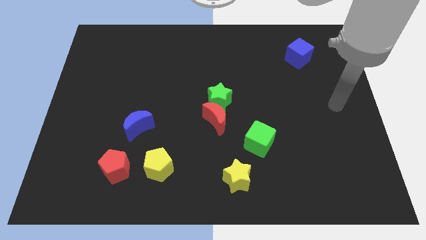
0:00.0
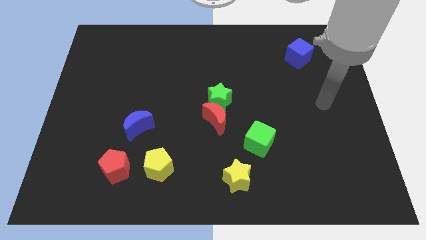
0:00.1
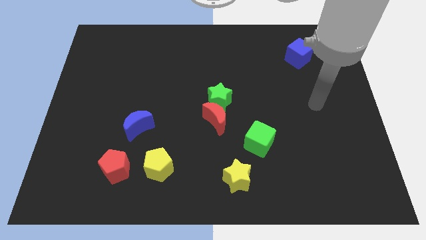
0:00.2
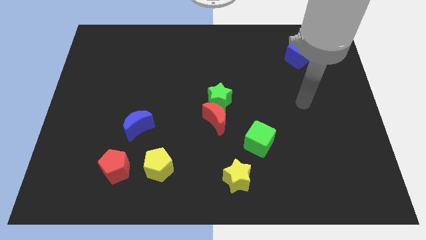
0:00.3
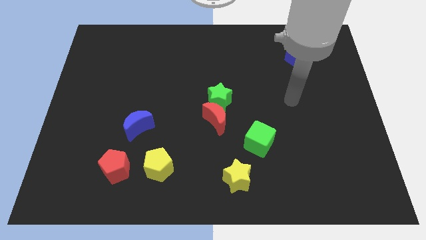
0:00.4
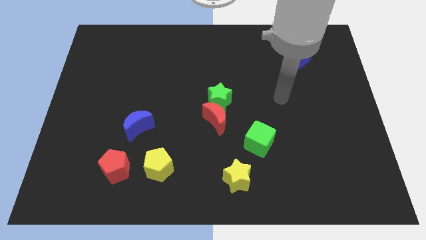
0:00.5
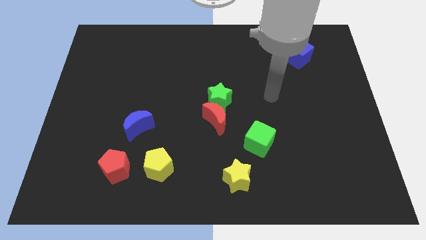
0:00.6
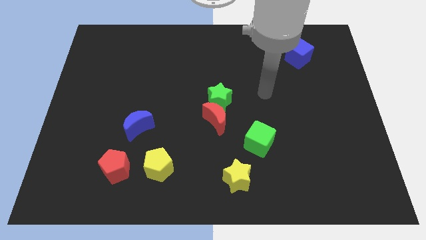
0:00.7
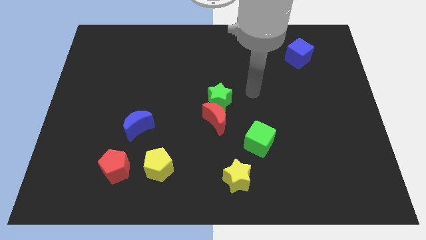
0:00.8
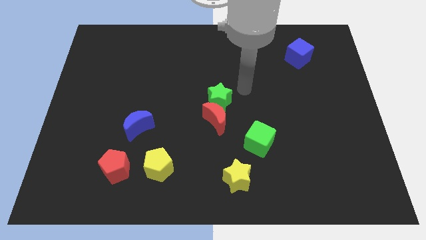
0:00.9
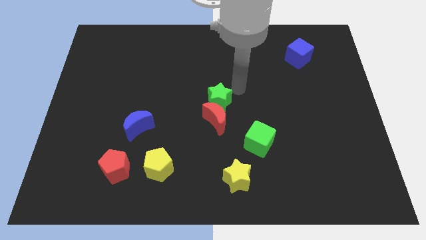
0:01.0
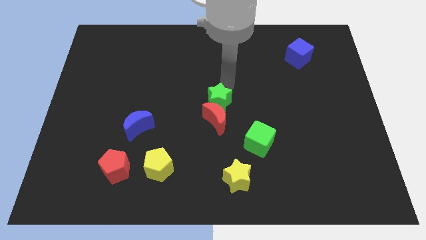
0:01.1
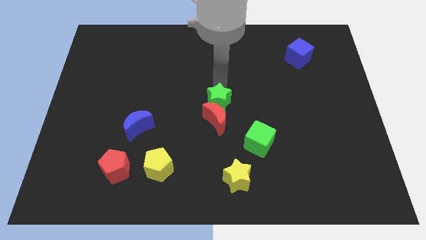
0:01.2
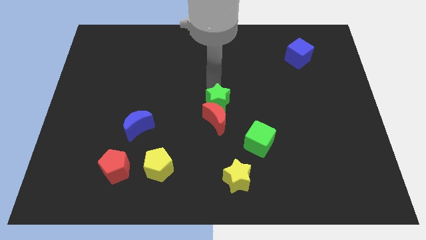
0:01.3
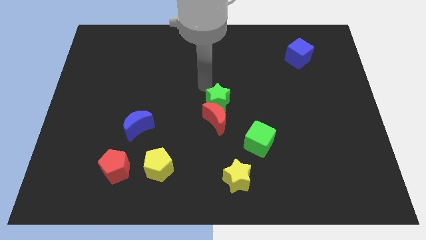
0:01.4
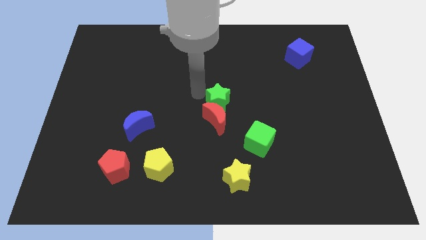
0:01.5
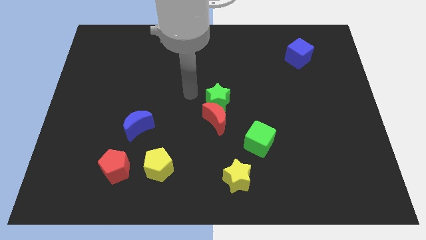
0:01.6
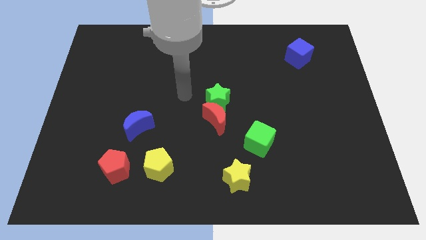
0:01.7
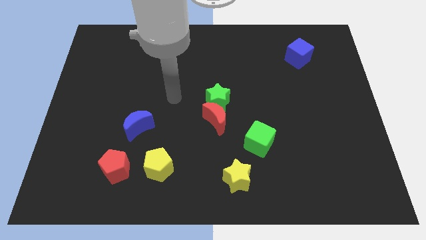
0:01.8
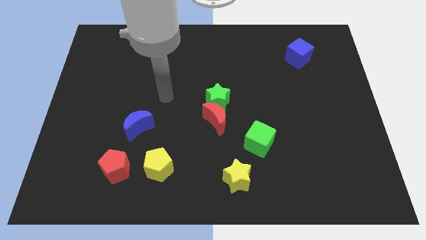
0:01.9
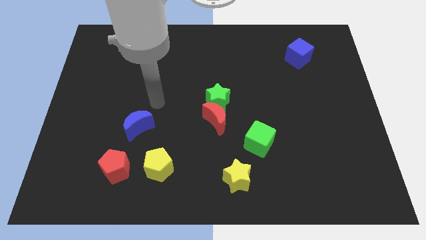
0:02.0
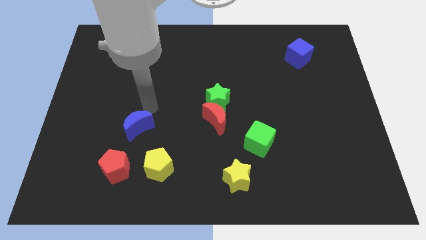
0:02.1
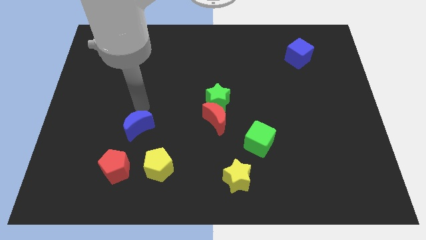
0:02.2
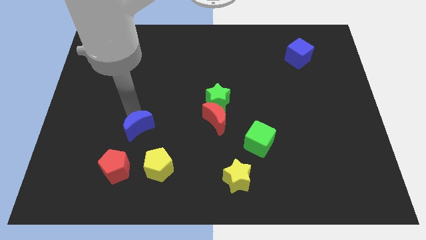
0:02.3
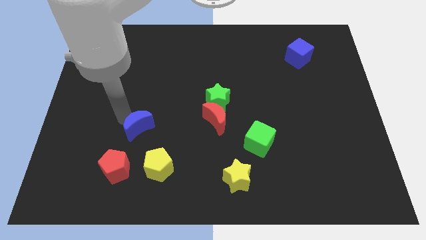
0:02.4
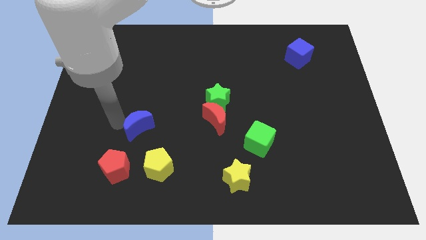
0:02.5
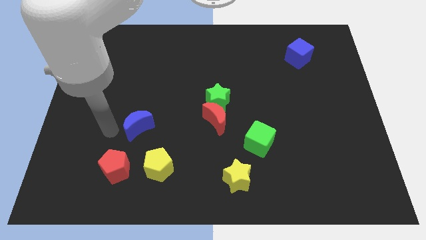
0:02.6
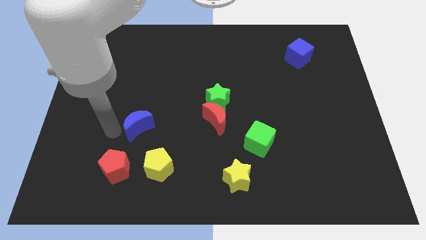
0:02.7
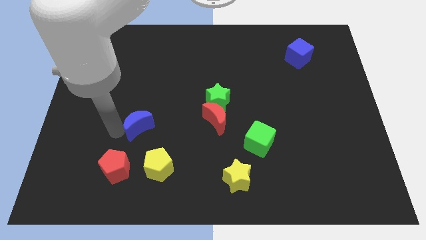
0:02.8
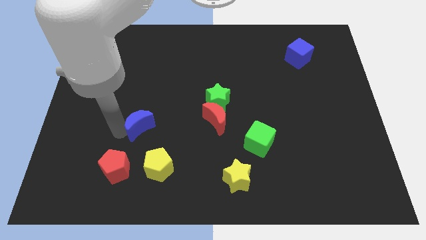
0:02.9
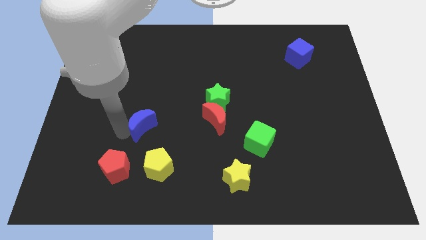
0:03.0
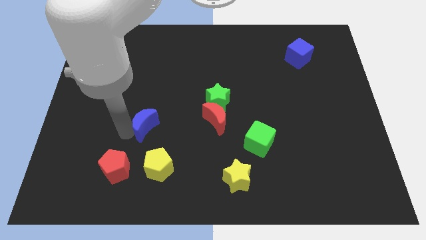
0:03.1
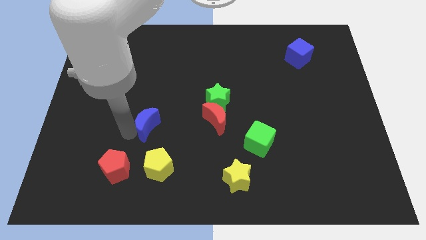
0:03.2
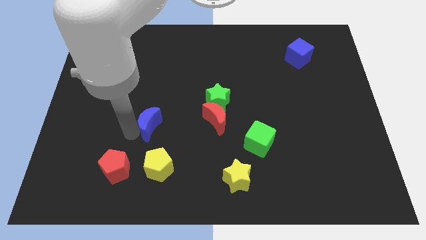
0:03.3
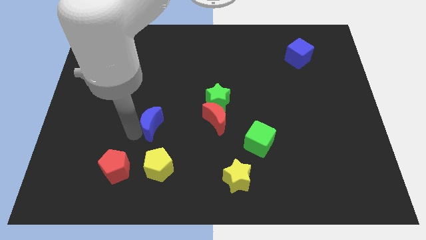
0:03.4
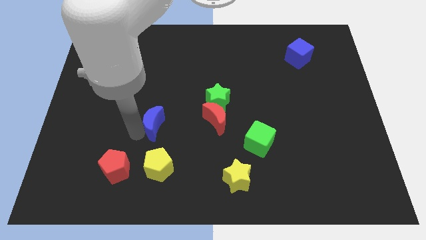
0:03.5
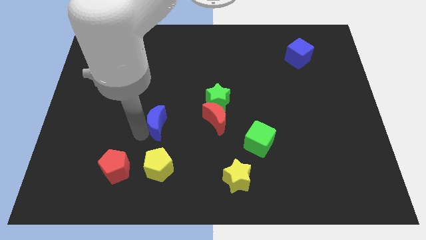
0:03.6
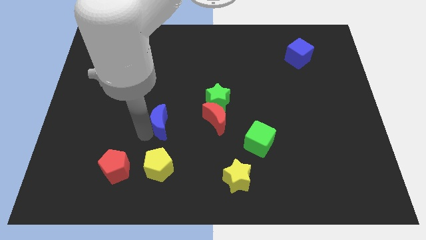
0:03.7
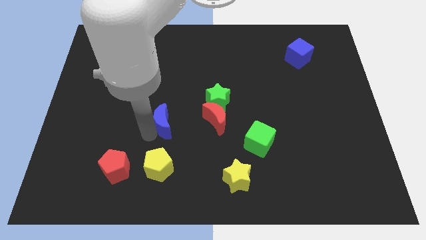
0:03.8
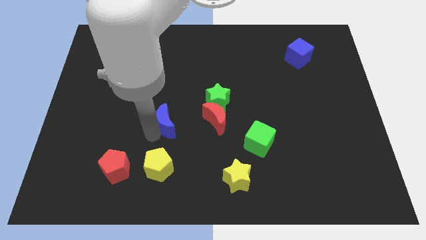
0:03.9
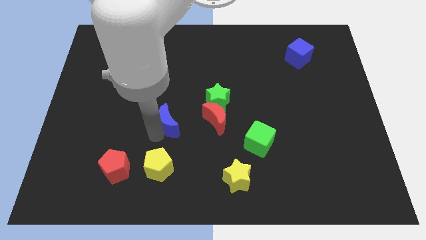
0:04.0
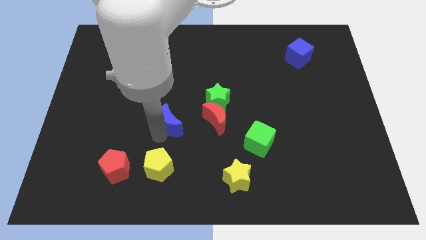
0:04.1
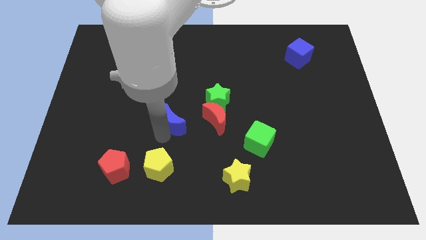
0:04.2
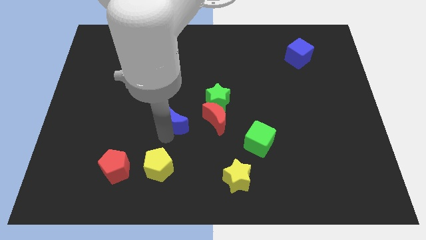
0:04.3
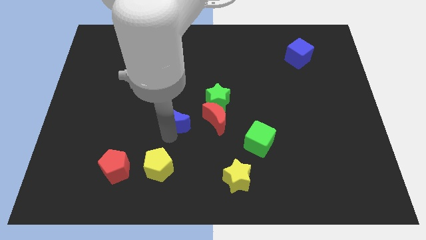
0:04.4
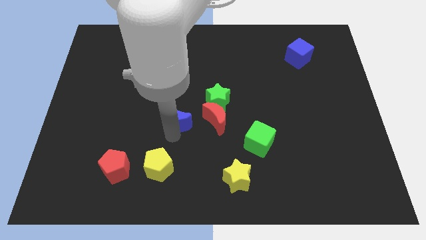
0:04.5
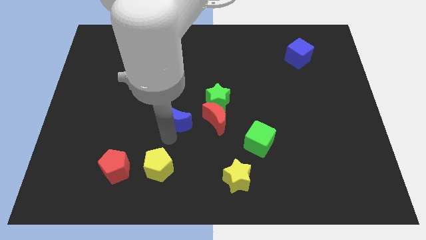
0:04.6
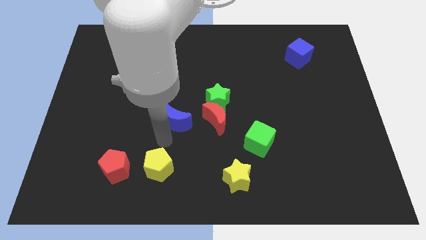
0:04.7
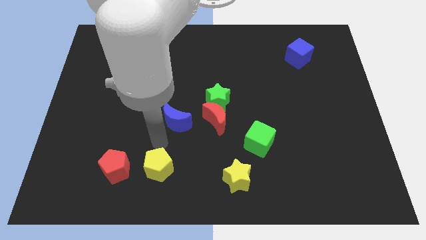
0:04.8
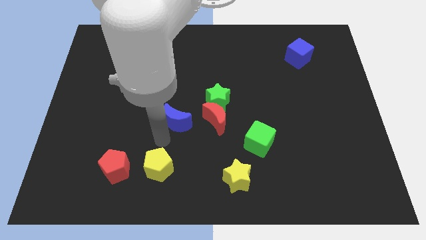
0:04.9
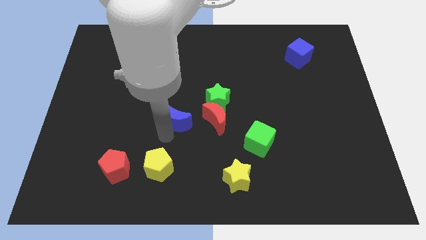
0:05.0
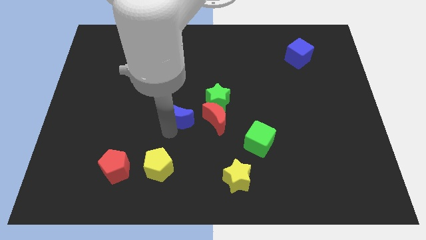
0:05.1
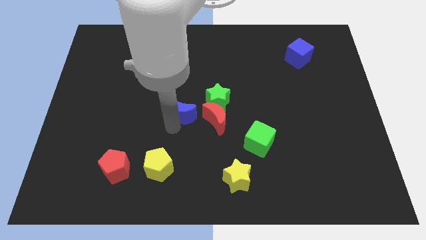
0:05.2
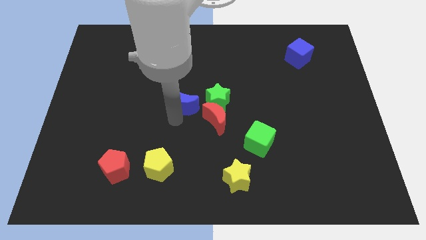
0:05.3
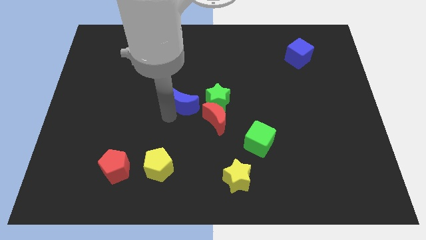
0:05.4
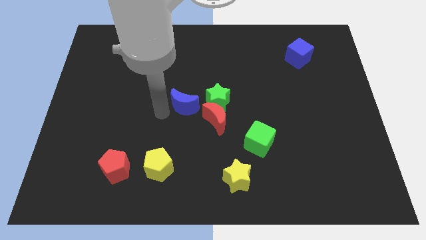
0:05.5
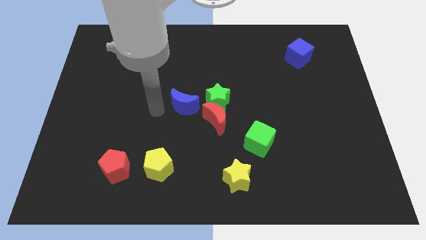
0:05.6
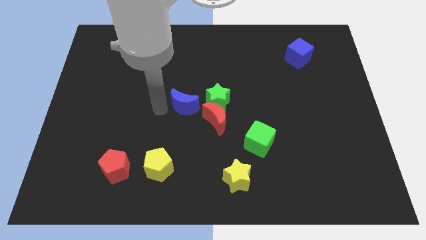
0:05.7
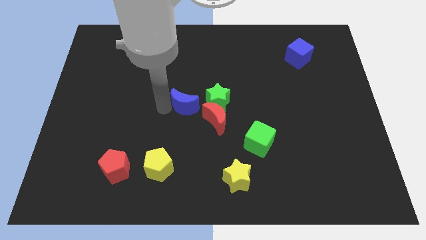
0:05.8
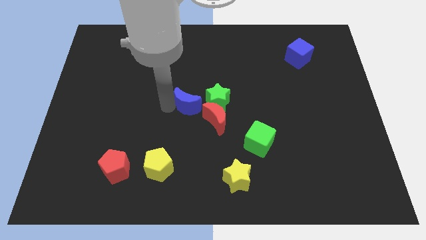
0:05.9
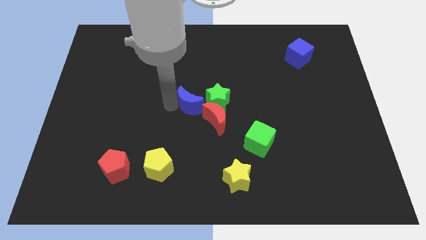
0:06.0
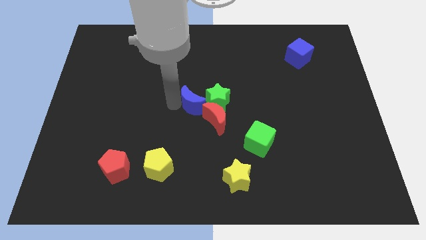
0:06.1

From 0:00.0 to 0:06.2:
put the blue moon to the green star

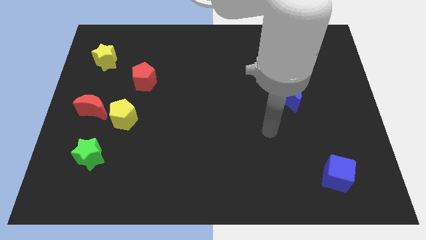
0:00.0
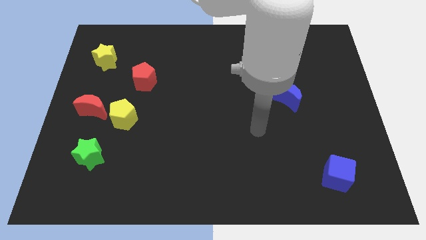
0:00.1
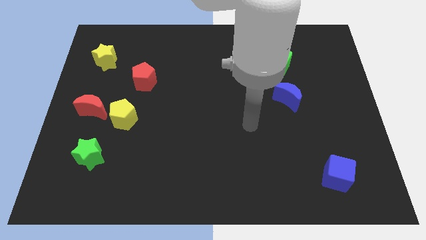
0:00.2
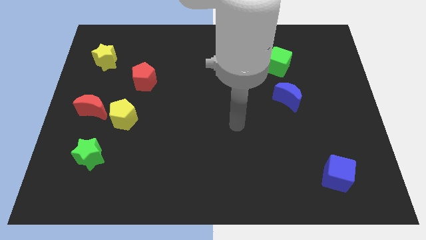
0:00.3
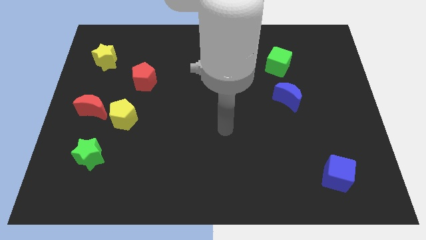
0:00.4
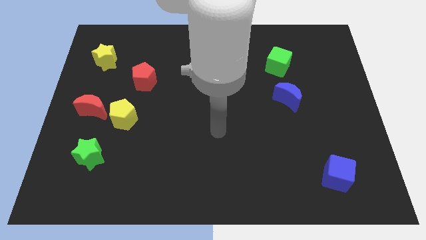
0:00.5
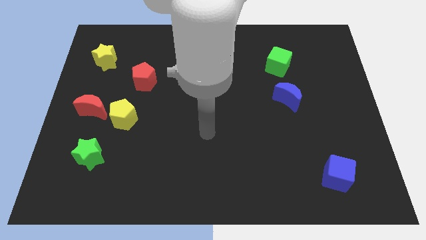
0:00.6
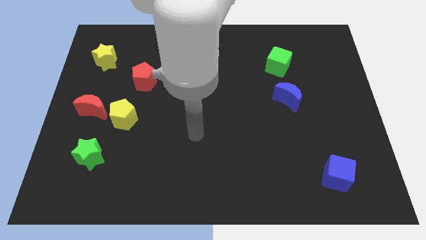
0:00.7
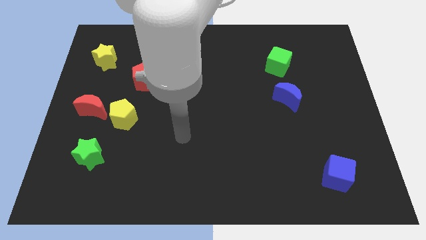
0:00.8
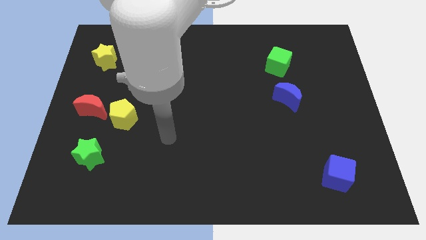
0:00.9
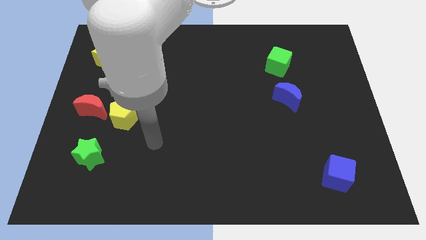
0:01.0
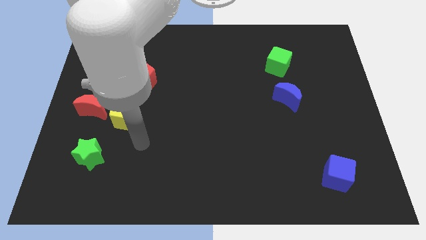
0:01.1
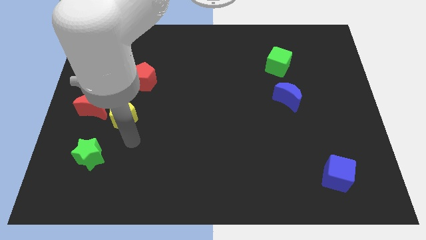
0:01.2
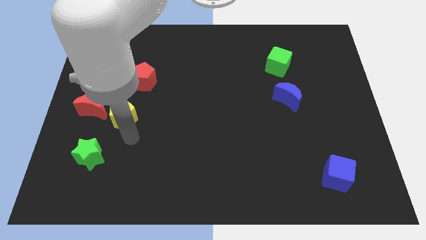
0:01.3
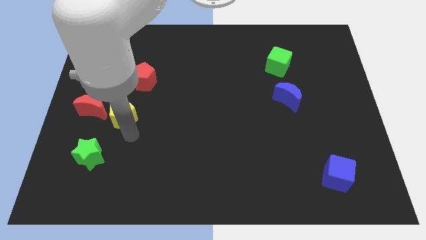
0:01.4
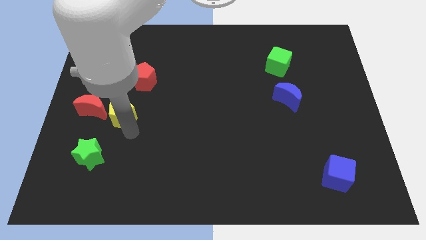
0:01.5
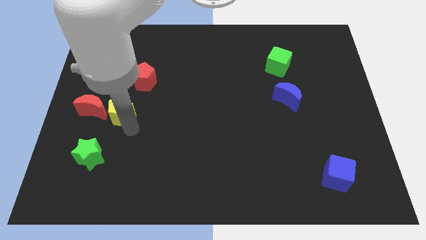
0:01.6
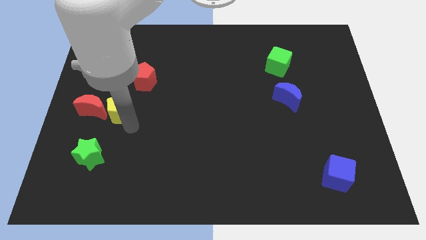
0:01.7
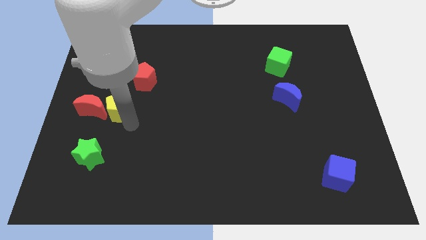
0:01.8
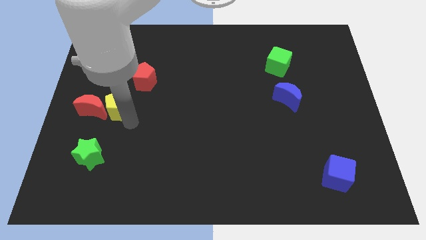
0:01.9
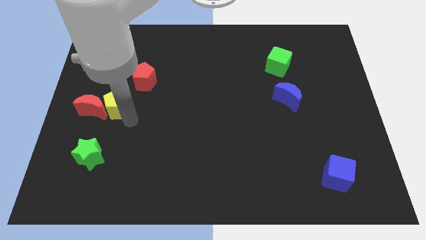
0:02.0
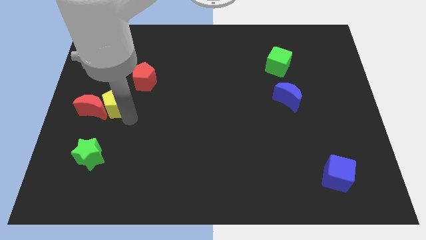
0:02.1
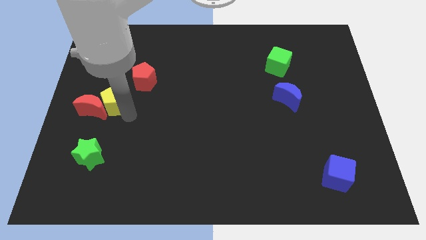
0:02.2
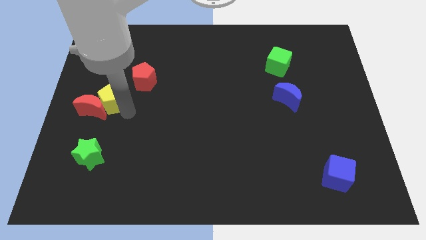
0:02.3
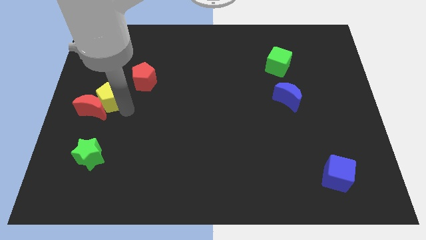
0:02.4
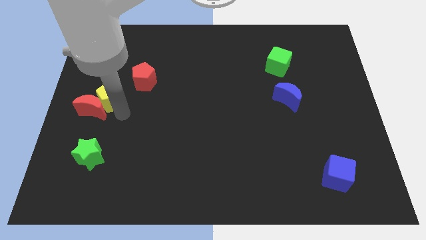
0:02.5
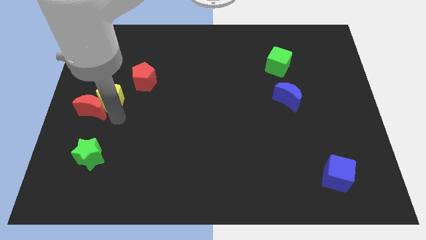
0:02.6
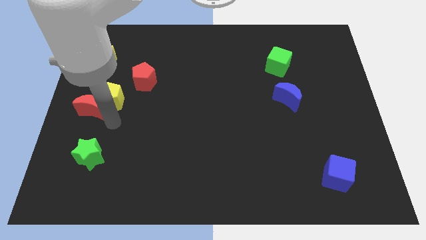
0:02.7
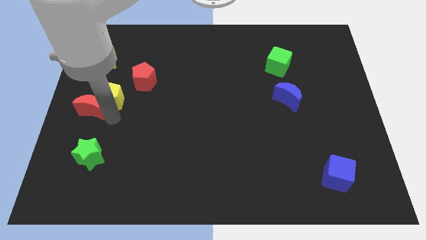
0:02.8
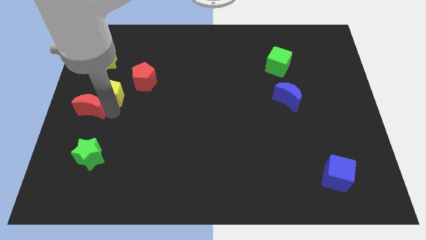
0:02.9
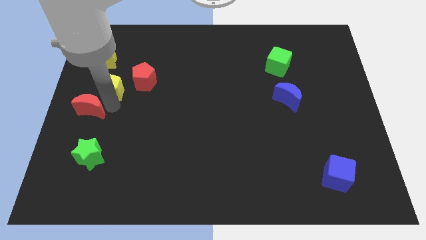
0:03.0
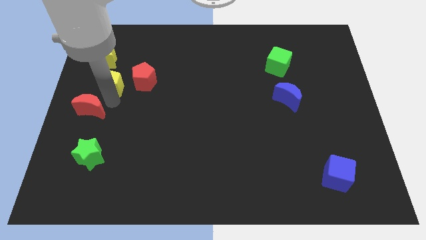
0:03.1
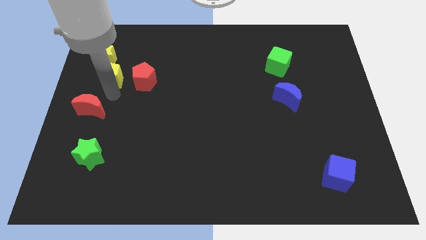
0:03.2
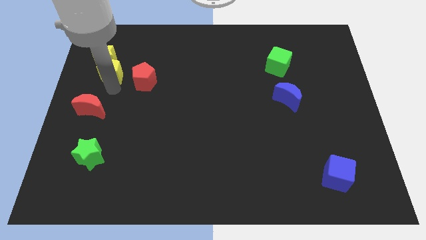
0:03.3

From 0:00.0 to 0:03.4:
push the yellow pentagon next to the yellow star
